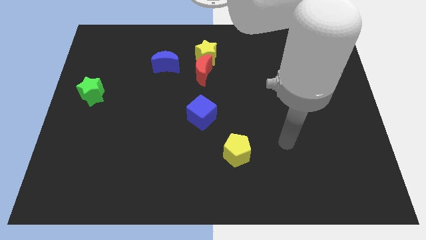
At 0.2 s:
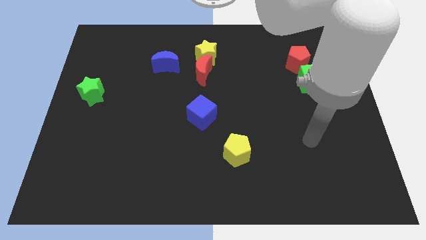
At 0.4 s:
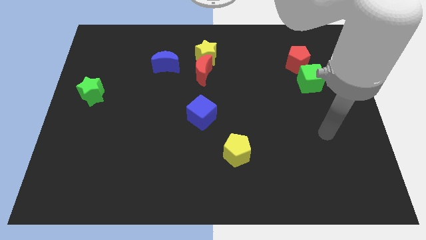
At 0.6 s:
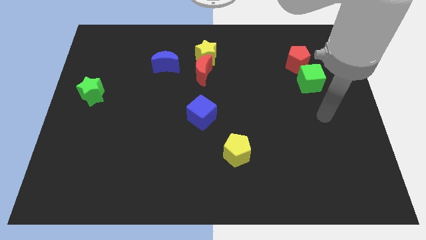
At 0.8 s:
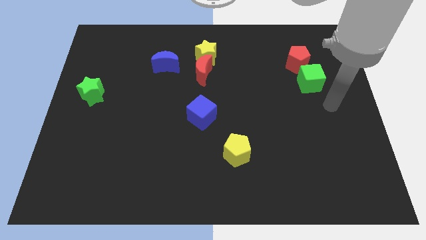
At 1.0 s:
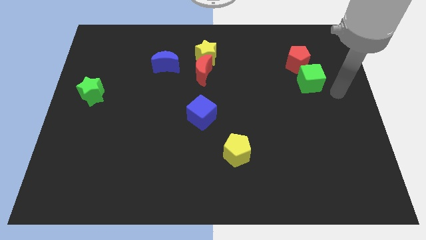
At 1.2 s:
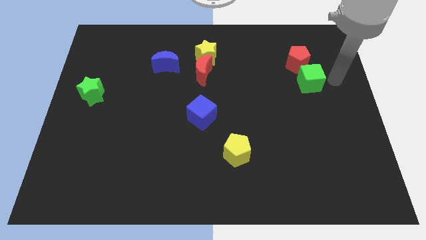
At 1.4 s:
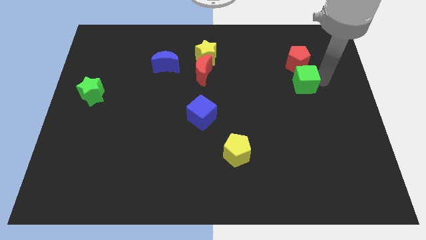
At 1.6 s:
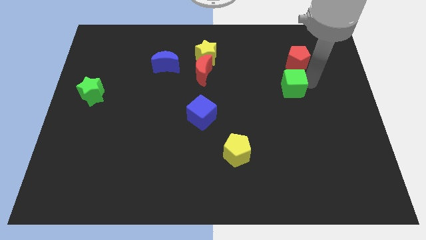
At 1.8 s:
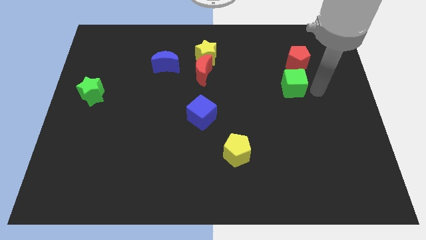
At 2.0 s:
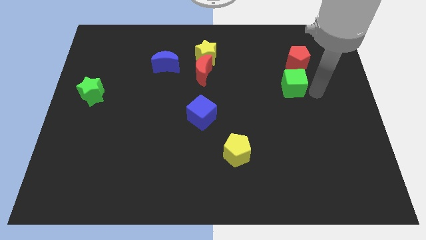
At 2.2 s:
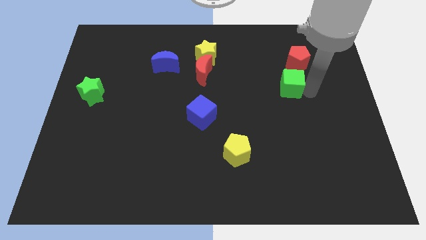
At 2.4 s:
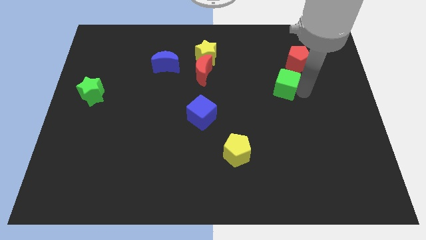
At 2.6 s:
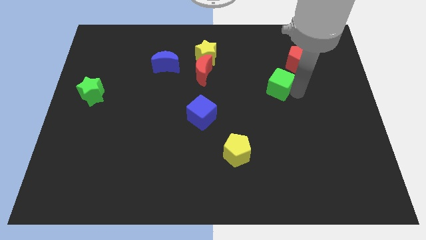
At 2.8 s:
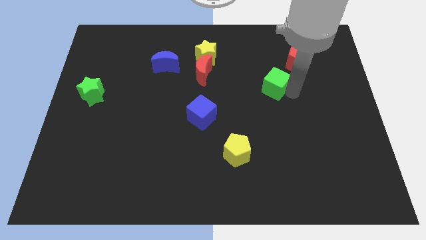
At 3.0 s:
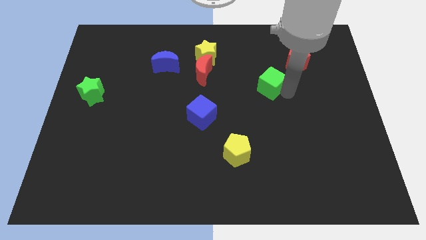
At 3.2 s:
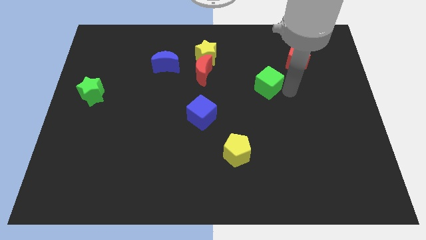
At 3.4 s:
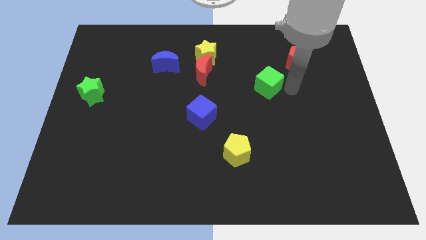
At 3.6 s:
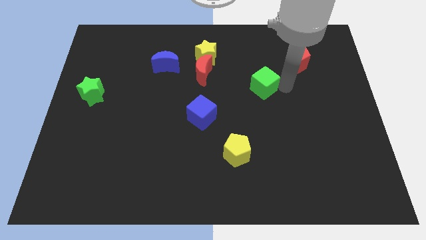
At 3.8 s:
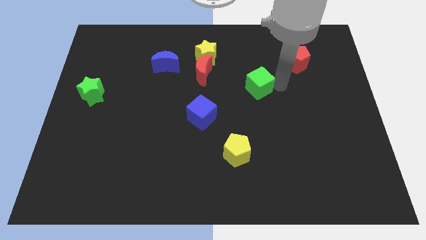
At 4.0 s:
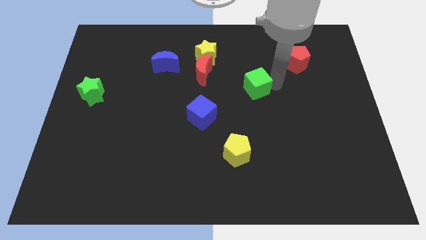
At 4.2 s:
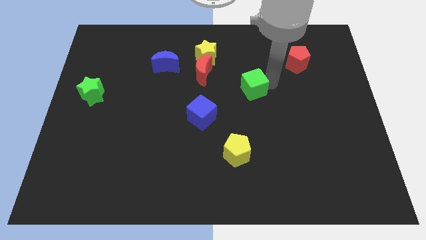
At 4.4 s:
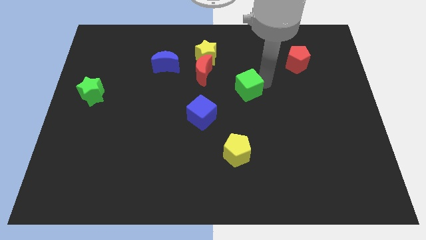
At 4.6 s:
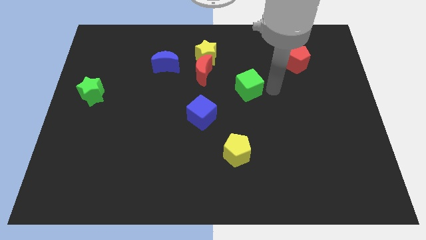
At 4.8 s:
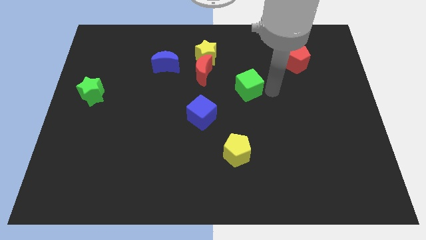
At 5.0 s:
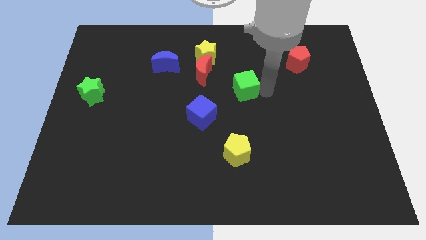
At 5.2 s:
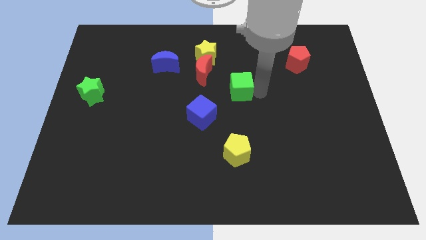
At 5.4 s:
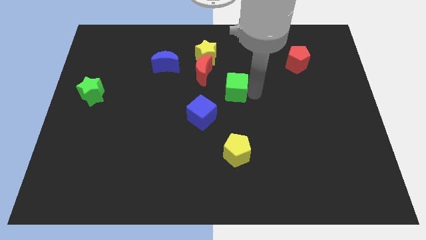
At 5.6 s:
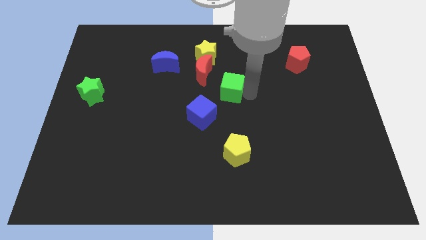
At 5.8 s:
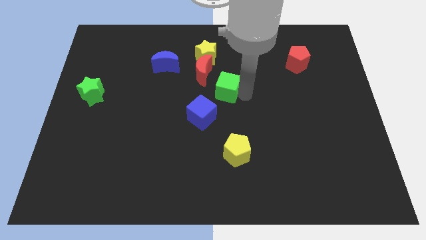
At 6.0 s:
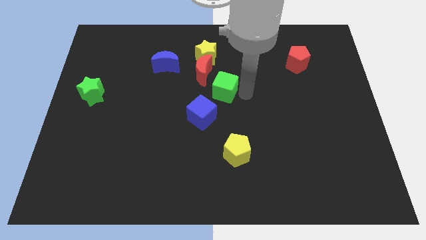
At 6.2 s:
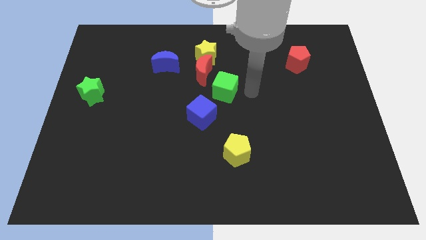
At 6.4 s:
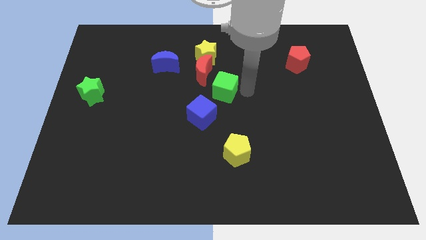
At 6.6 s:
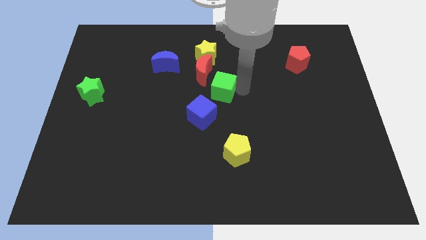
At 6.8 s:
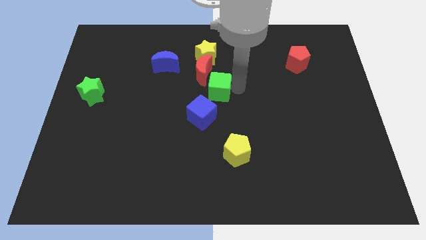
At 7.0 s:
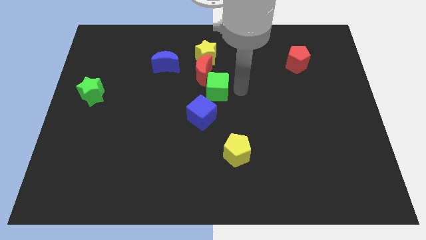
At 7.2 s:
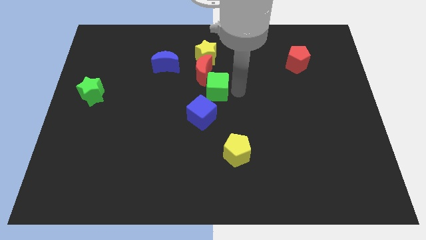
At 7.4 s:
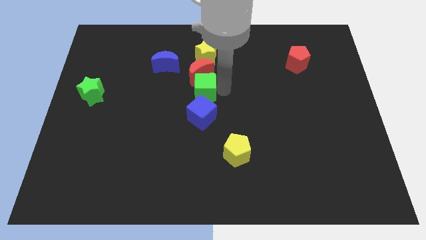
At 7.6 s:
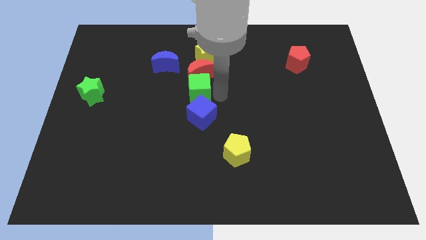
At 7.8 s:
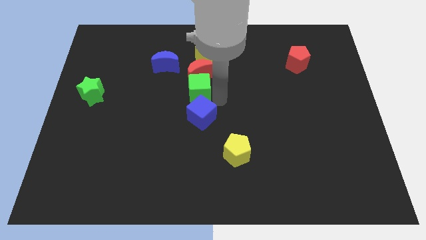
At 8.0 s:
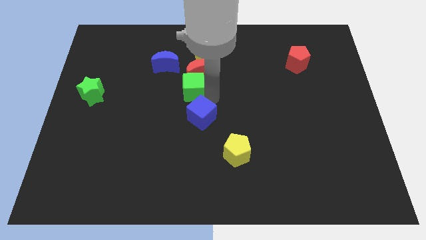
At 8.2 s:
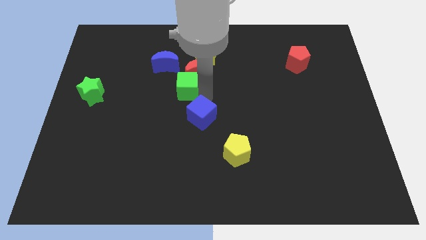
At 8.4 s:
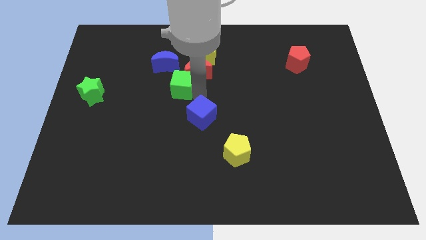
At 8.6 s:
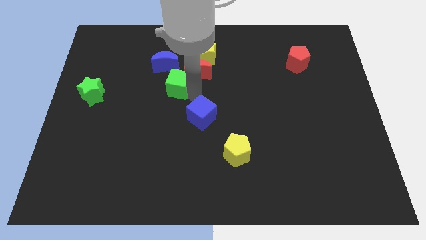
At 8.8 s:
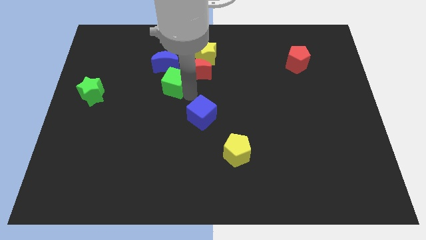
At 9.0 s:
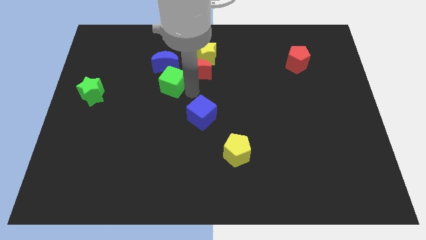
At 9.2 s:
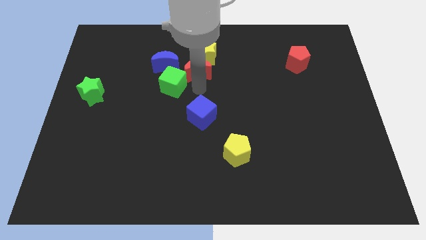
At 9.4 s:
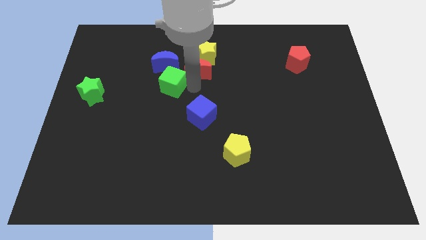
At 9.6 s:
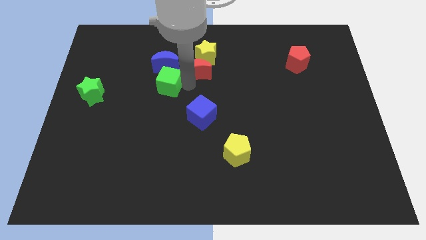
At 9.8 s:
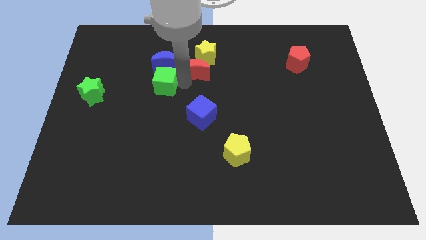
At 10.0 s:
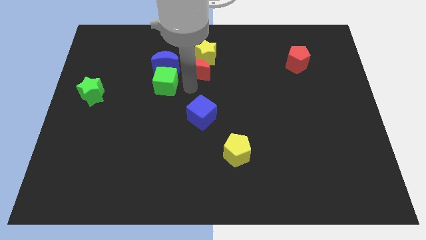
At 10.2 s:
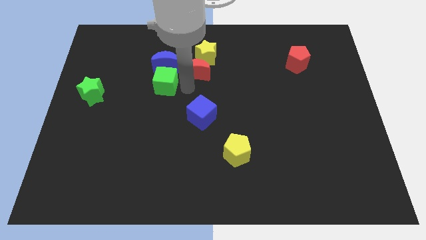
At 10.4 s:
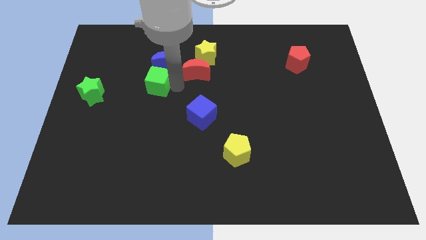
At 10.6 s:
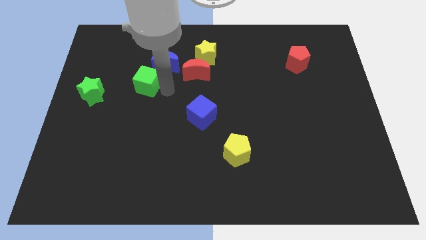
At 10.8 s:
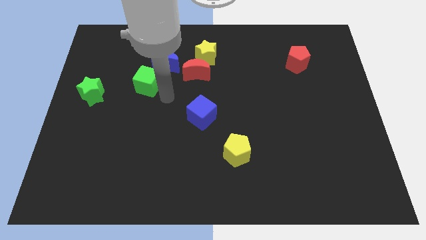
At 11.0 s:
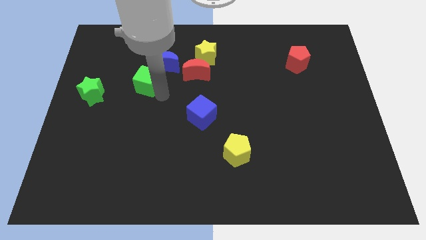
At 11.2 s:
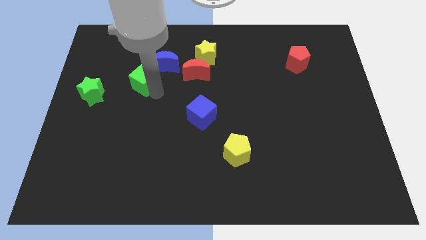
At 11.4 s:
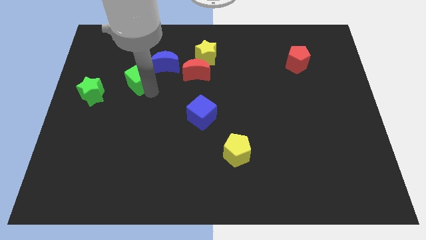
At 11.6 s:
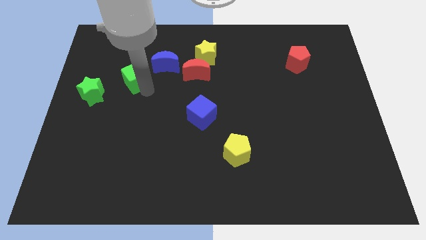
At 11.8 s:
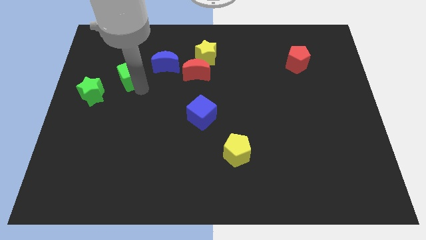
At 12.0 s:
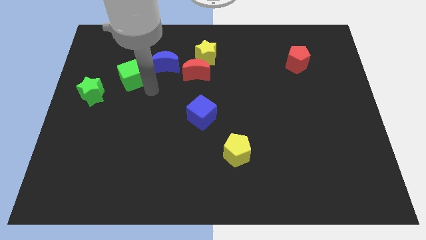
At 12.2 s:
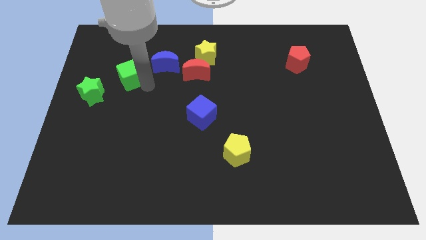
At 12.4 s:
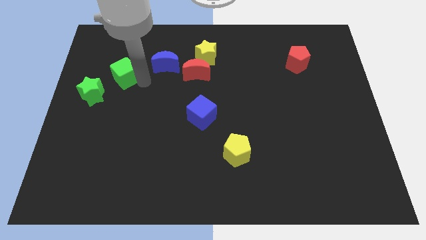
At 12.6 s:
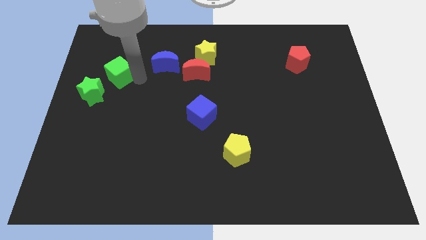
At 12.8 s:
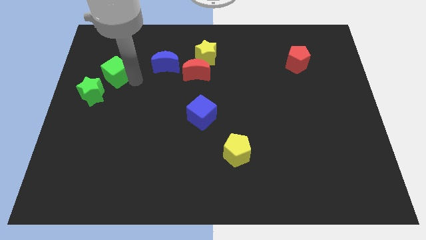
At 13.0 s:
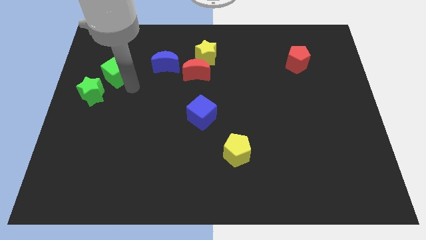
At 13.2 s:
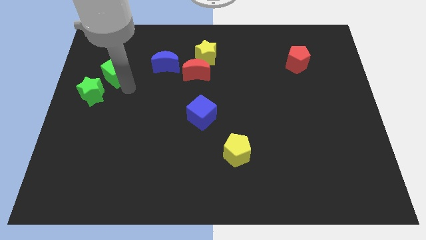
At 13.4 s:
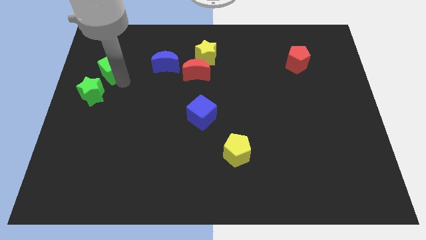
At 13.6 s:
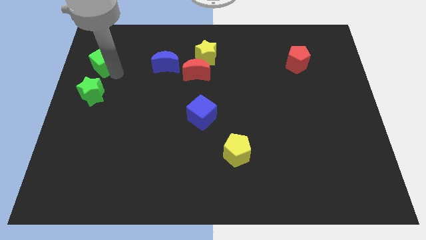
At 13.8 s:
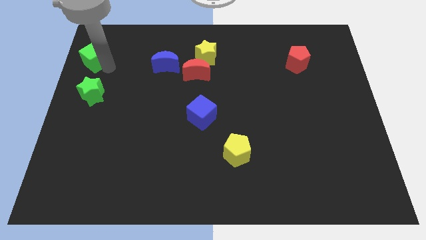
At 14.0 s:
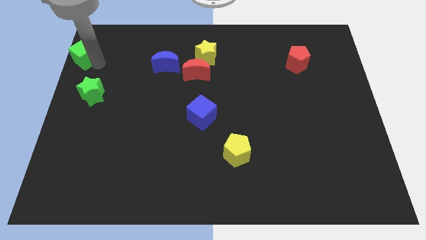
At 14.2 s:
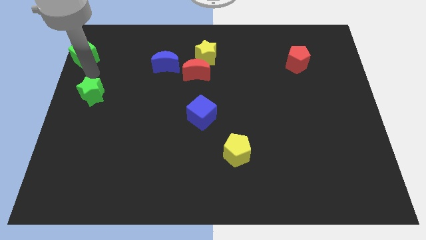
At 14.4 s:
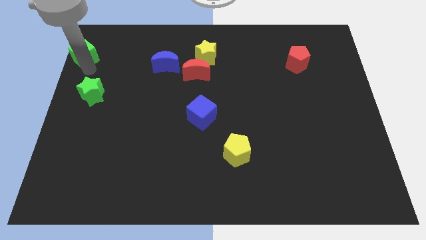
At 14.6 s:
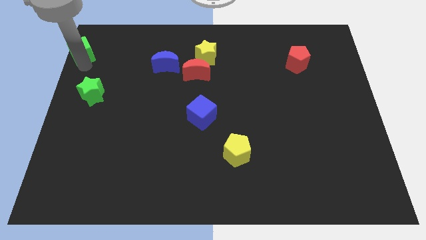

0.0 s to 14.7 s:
put the green cube to the upper left corner

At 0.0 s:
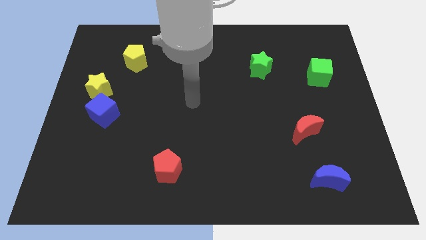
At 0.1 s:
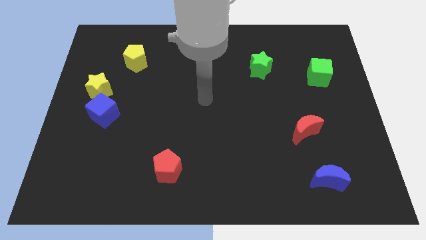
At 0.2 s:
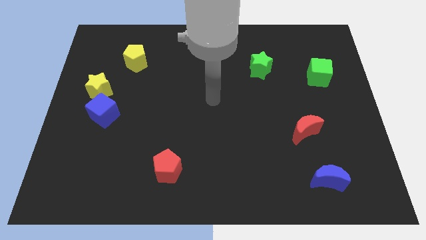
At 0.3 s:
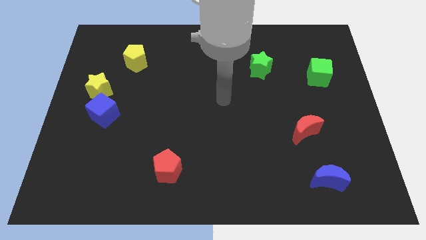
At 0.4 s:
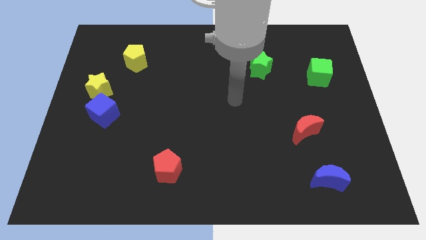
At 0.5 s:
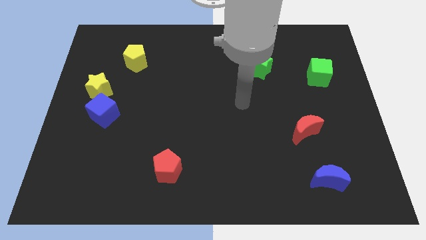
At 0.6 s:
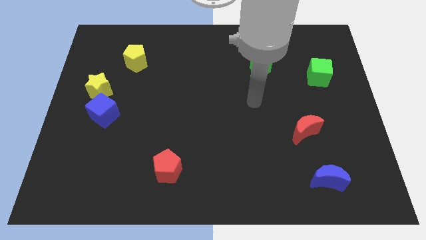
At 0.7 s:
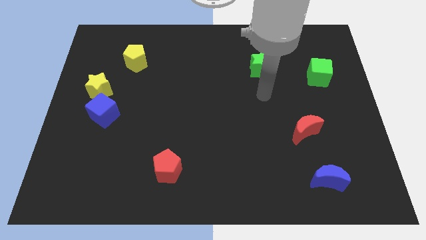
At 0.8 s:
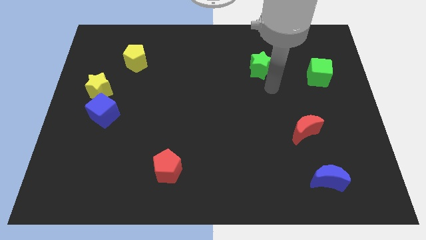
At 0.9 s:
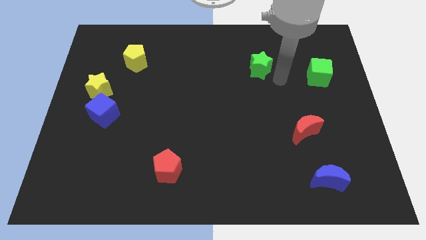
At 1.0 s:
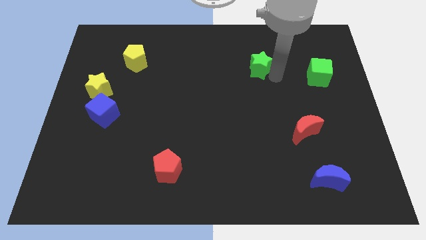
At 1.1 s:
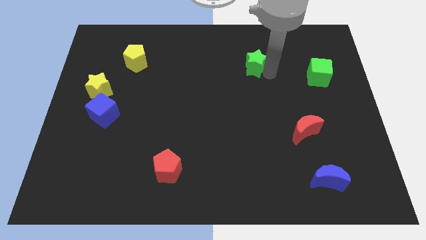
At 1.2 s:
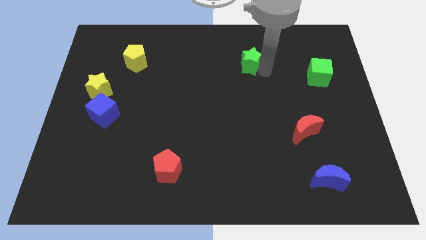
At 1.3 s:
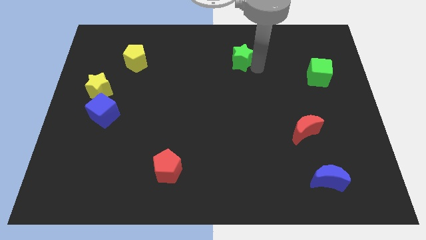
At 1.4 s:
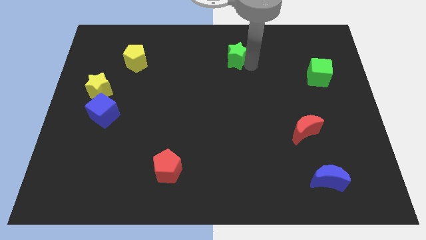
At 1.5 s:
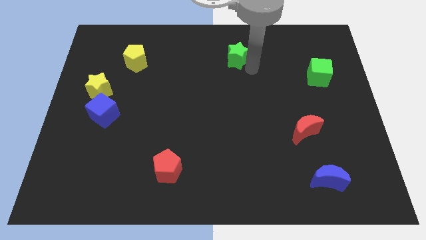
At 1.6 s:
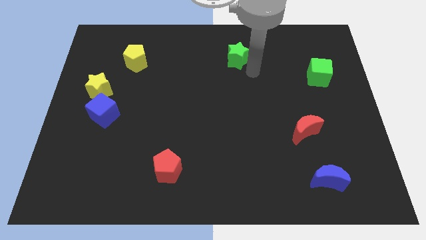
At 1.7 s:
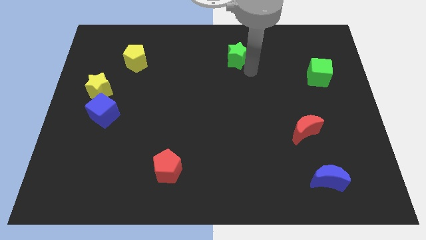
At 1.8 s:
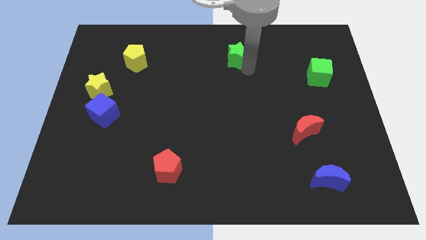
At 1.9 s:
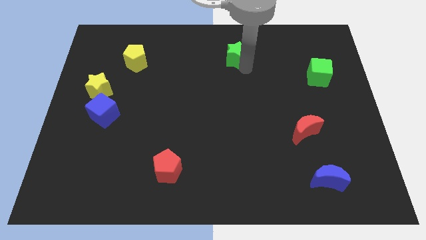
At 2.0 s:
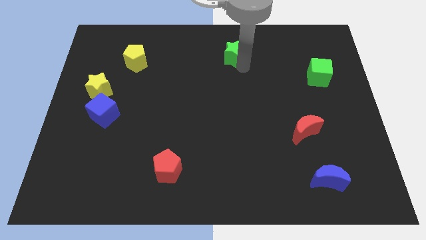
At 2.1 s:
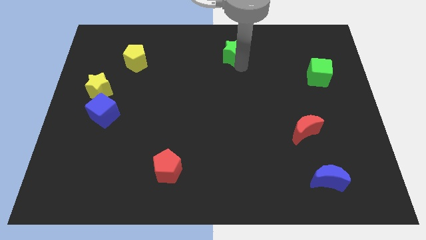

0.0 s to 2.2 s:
move the green star to the top side
